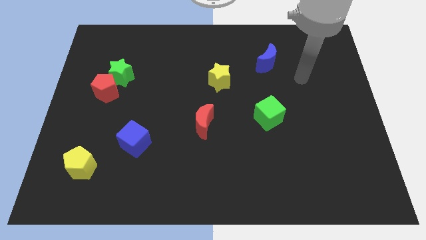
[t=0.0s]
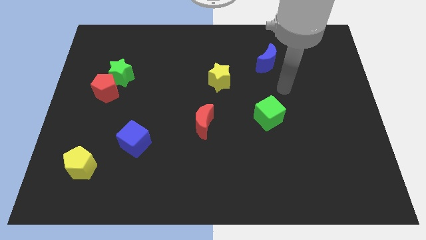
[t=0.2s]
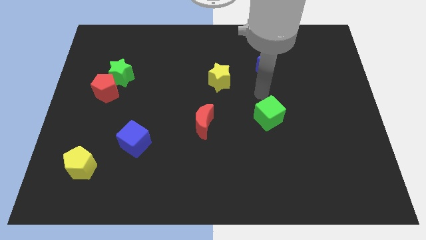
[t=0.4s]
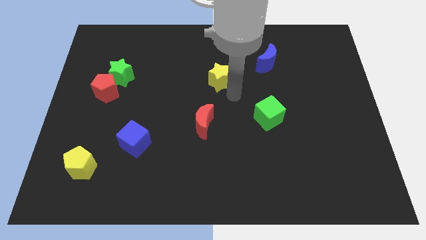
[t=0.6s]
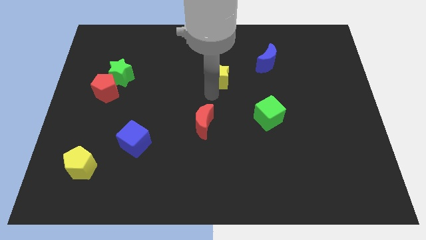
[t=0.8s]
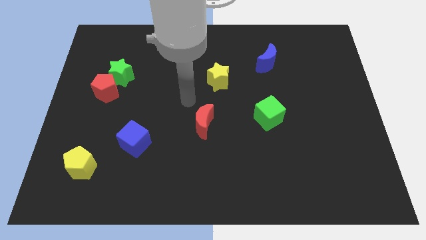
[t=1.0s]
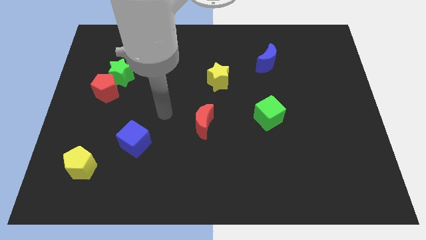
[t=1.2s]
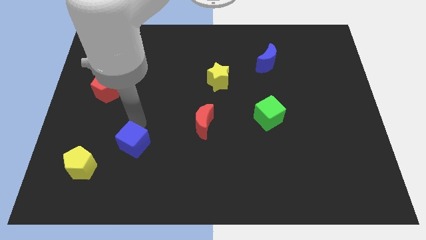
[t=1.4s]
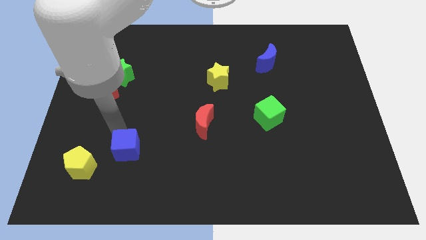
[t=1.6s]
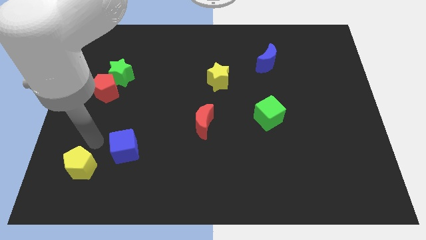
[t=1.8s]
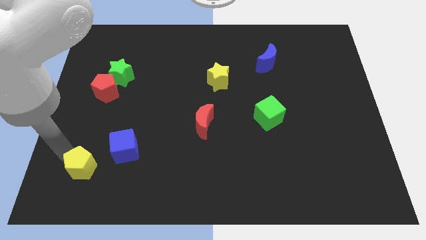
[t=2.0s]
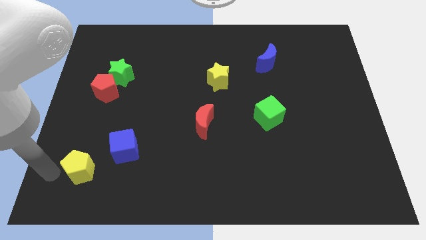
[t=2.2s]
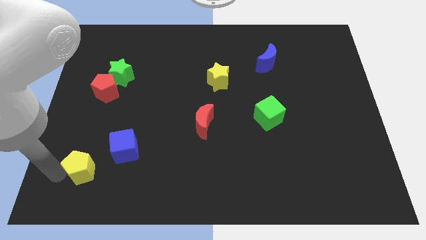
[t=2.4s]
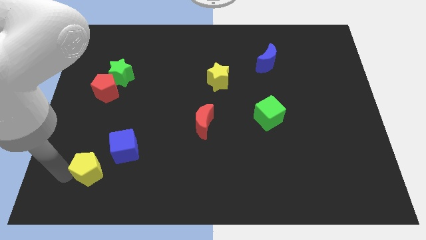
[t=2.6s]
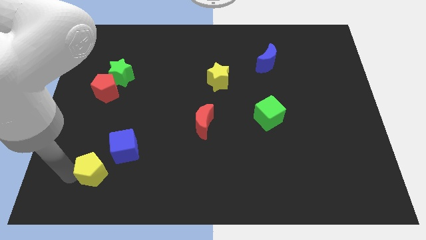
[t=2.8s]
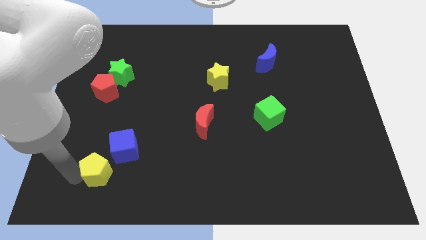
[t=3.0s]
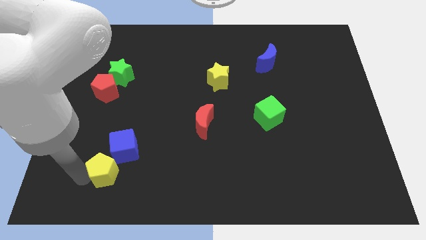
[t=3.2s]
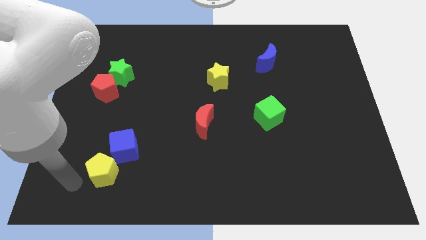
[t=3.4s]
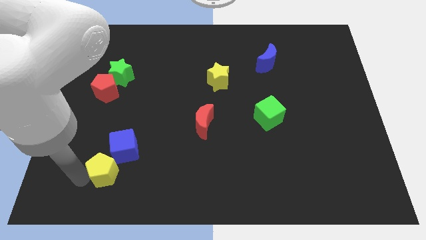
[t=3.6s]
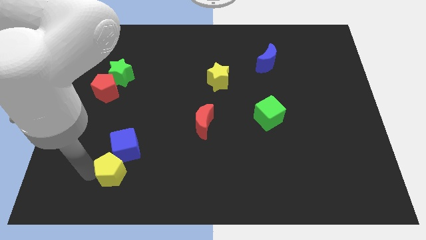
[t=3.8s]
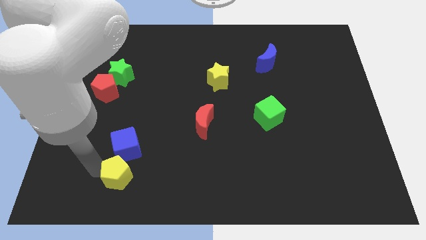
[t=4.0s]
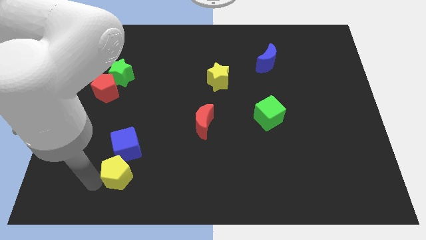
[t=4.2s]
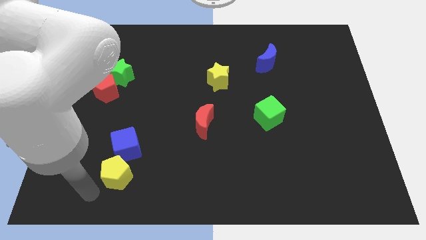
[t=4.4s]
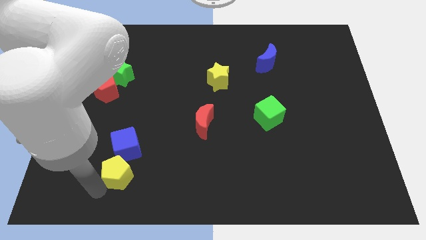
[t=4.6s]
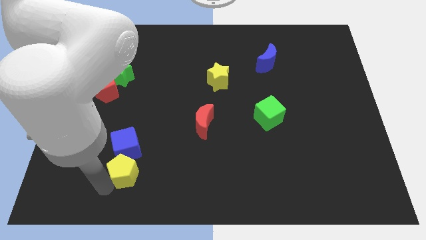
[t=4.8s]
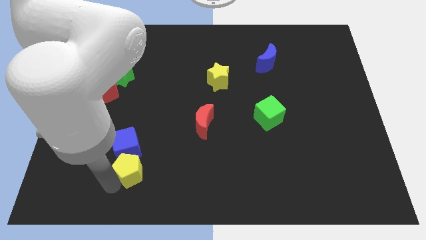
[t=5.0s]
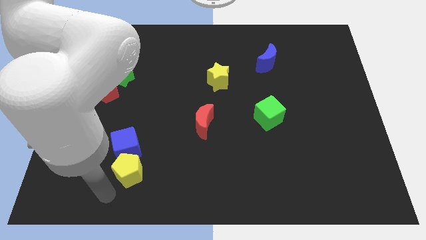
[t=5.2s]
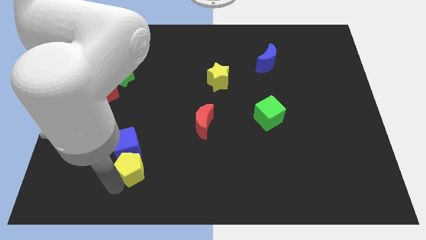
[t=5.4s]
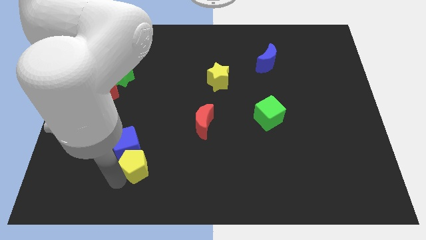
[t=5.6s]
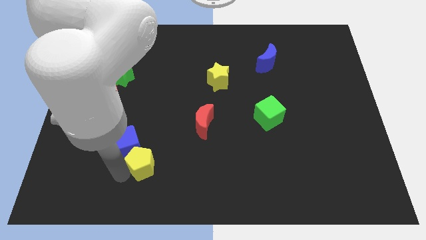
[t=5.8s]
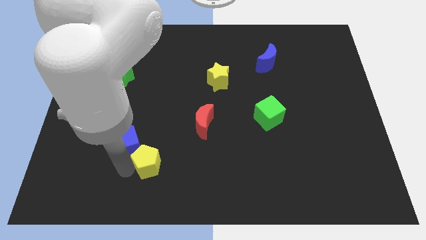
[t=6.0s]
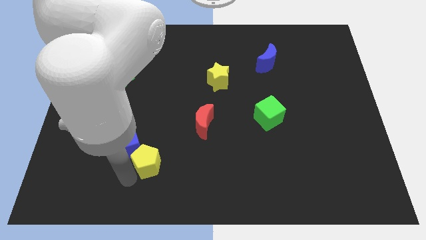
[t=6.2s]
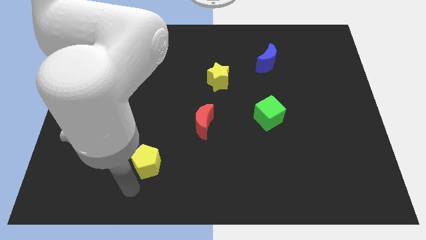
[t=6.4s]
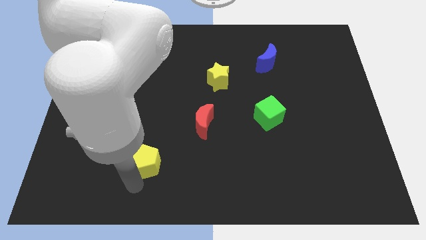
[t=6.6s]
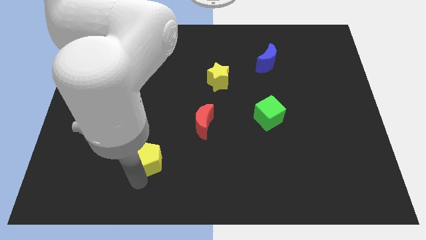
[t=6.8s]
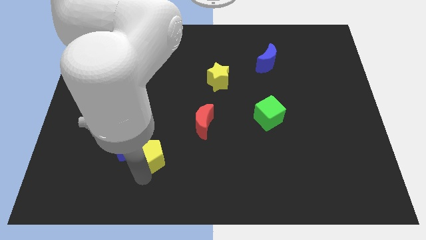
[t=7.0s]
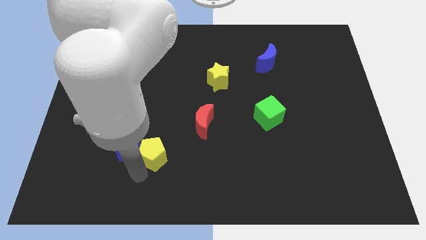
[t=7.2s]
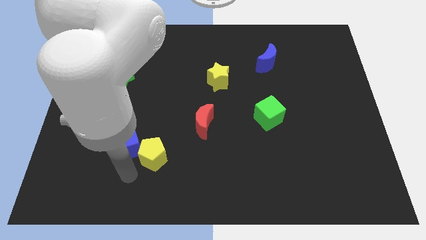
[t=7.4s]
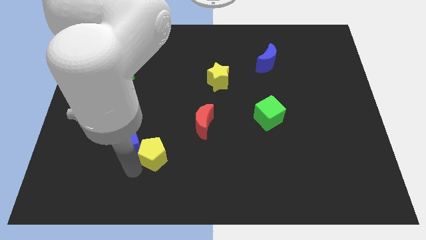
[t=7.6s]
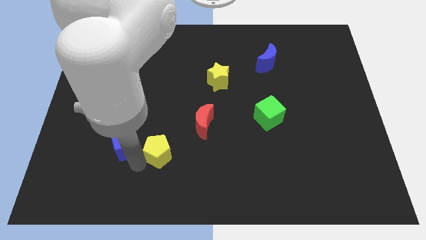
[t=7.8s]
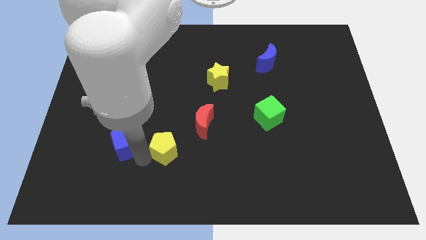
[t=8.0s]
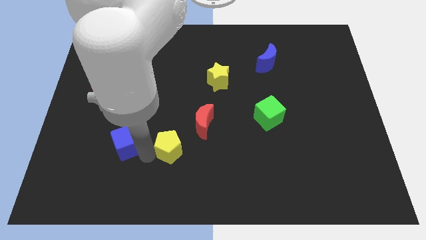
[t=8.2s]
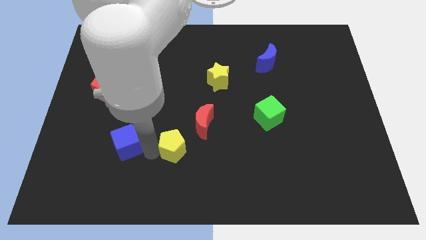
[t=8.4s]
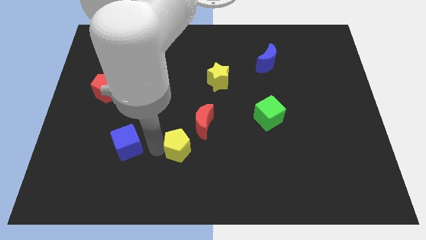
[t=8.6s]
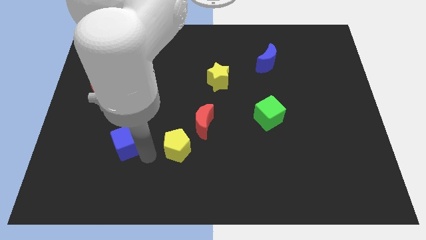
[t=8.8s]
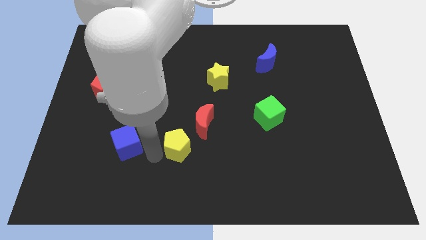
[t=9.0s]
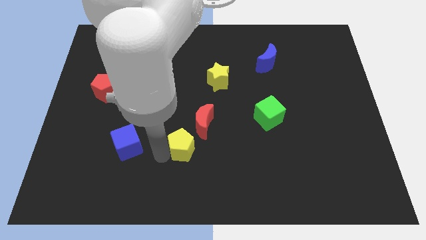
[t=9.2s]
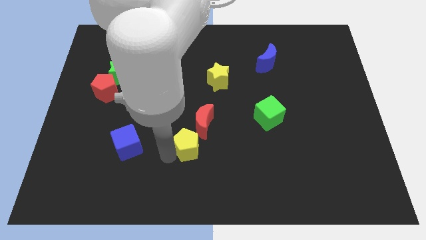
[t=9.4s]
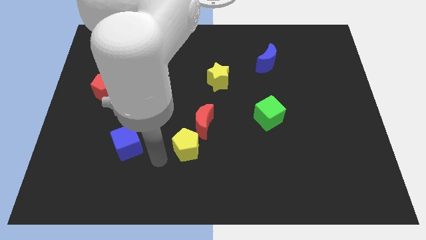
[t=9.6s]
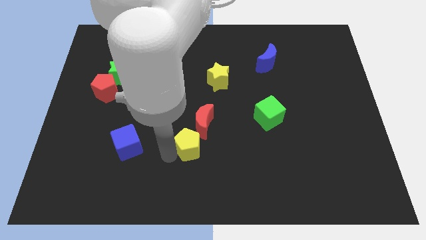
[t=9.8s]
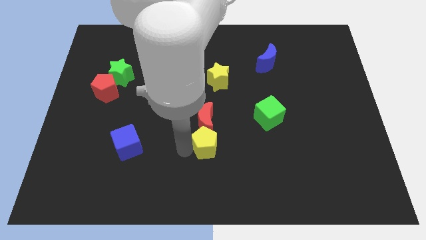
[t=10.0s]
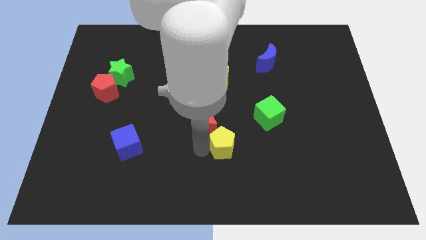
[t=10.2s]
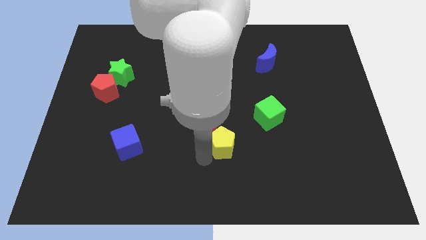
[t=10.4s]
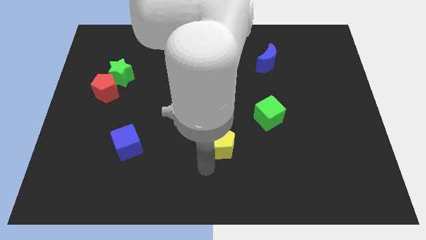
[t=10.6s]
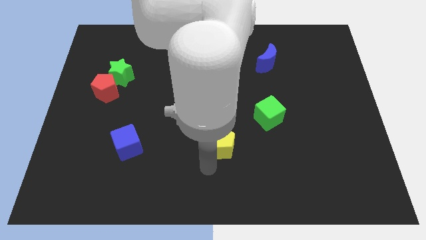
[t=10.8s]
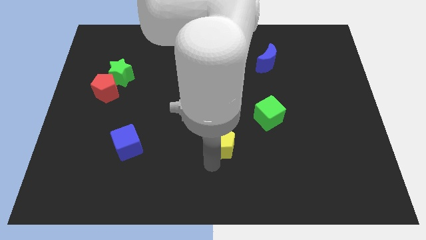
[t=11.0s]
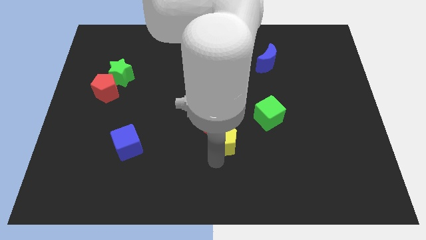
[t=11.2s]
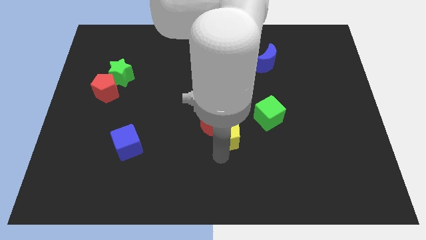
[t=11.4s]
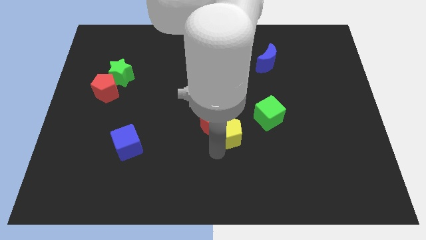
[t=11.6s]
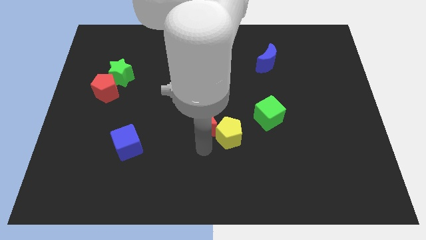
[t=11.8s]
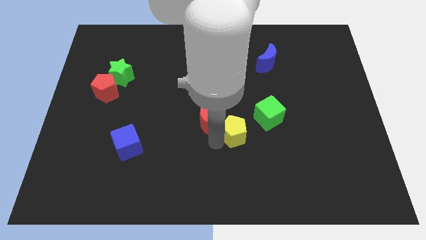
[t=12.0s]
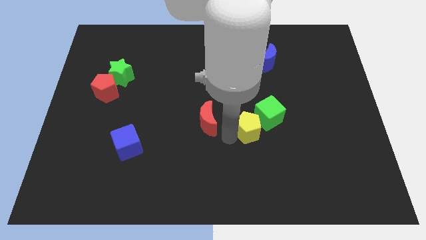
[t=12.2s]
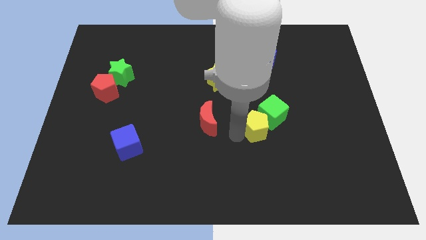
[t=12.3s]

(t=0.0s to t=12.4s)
push the yellow pentagon towards the green cube
